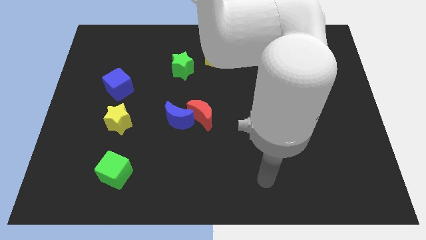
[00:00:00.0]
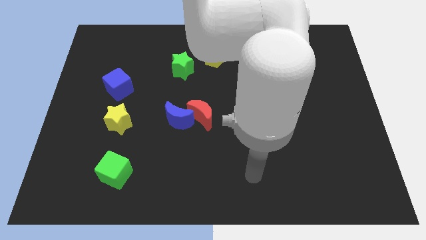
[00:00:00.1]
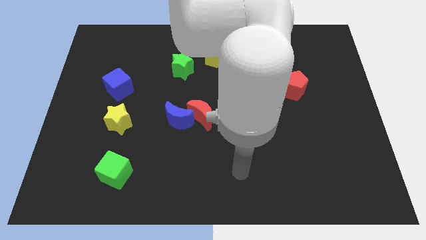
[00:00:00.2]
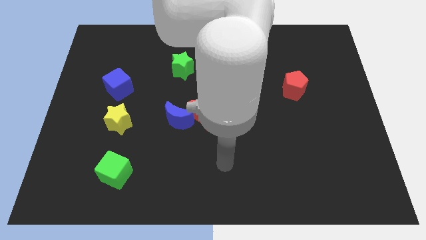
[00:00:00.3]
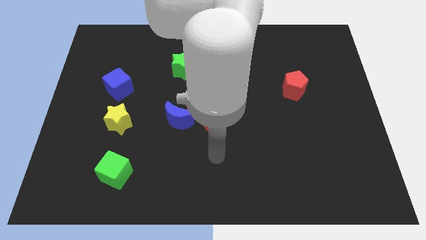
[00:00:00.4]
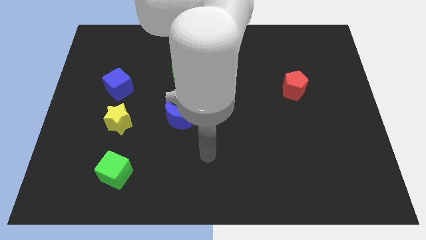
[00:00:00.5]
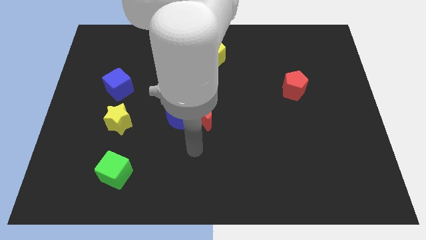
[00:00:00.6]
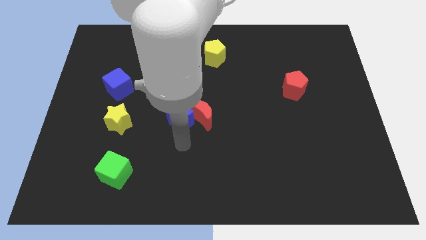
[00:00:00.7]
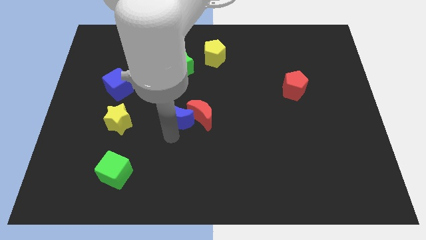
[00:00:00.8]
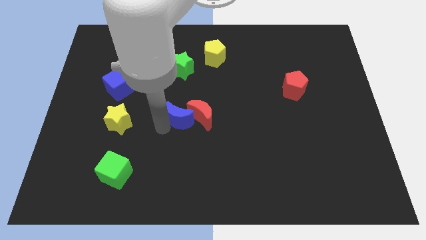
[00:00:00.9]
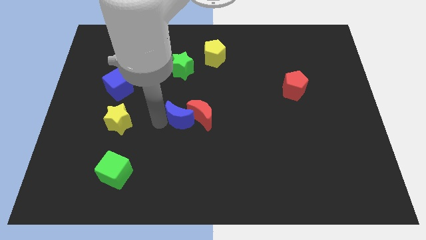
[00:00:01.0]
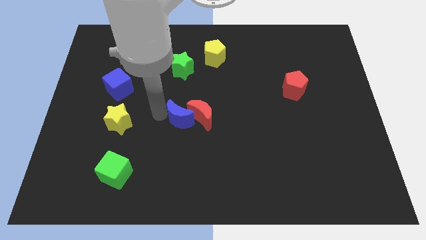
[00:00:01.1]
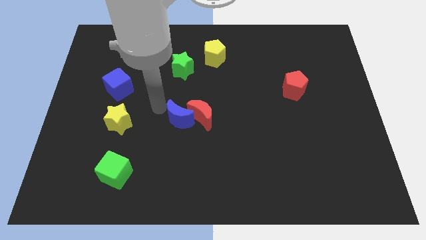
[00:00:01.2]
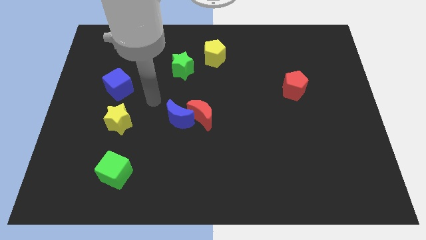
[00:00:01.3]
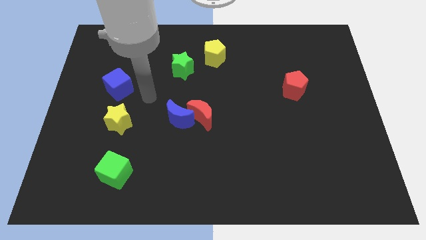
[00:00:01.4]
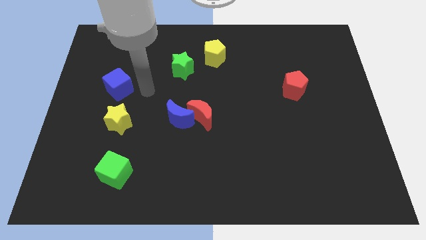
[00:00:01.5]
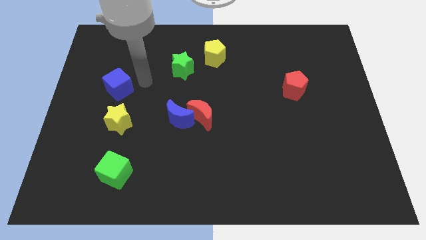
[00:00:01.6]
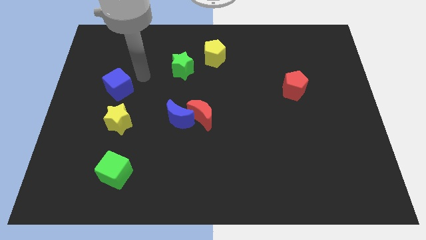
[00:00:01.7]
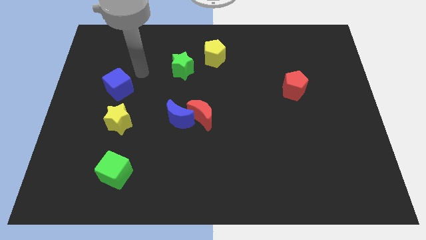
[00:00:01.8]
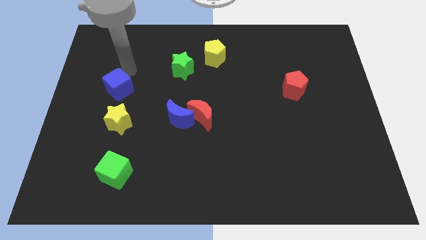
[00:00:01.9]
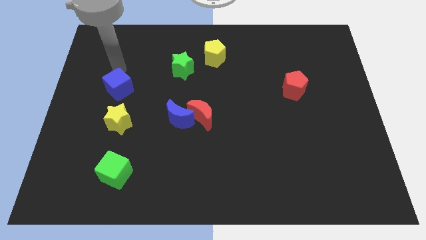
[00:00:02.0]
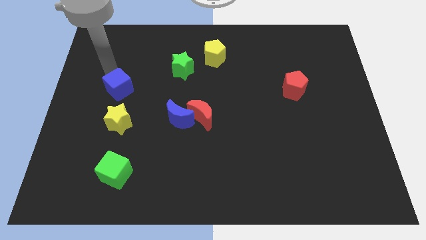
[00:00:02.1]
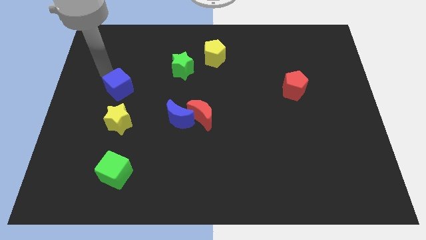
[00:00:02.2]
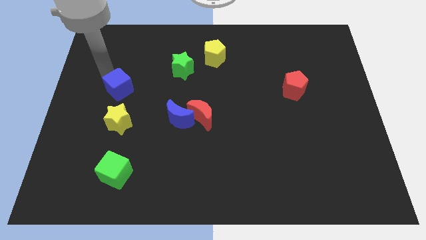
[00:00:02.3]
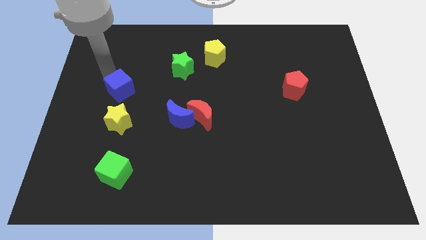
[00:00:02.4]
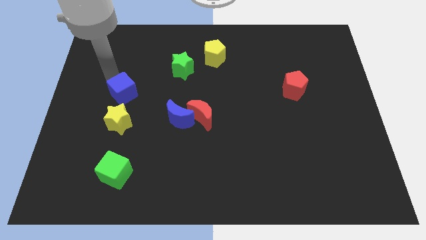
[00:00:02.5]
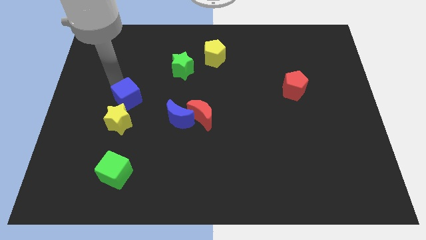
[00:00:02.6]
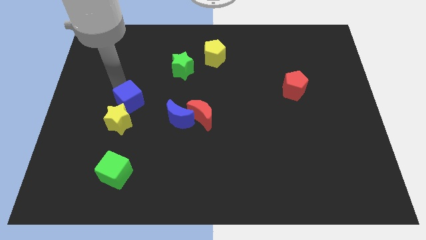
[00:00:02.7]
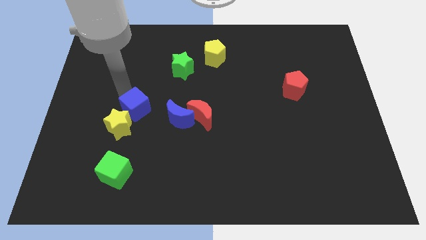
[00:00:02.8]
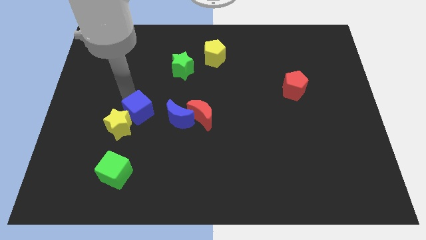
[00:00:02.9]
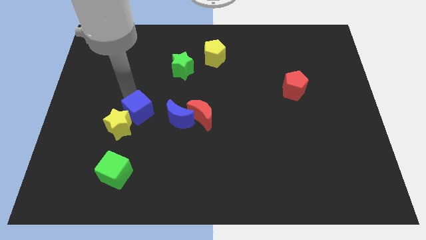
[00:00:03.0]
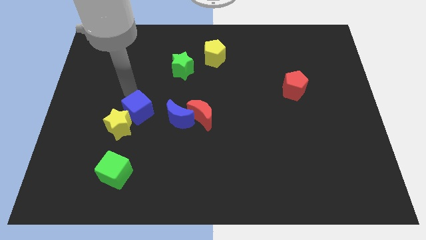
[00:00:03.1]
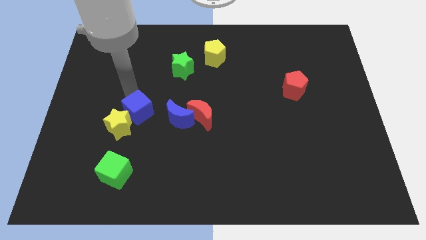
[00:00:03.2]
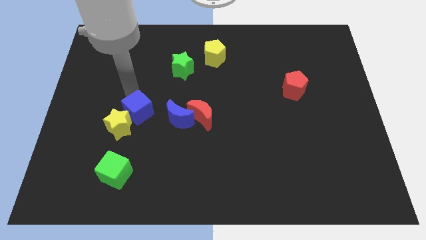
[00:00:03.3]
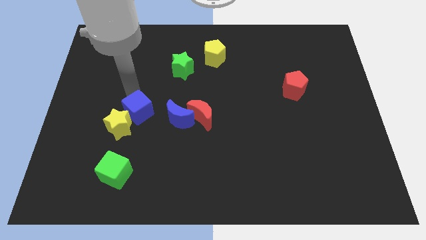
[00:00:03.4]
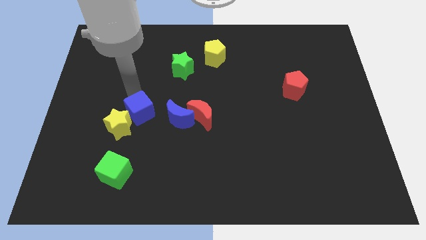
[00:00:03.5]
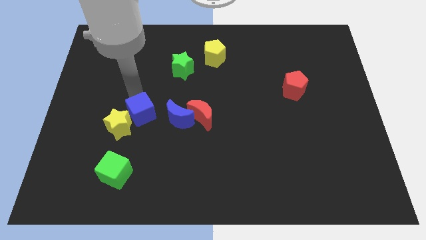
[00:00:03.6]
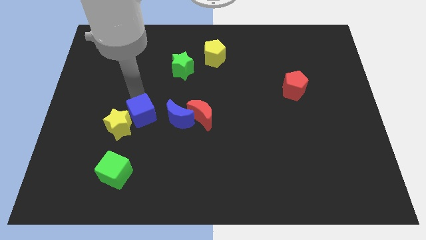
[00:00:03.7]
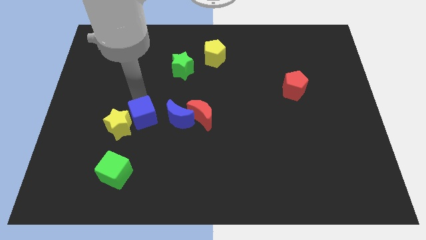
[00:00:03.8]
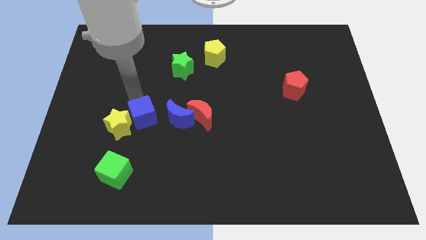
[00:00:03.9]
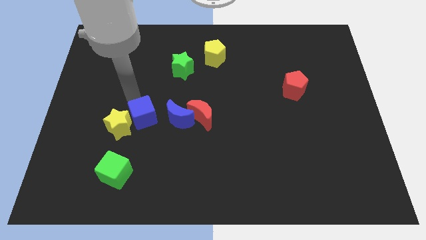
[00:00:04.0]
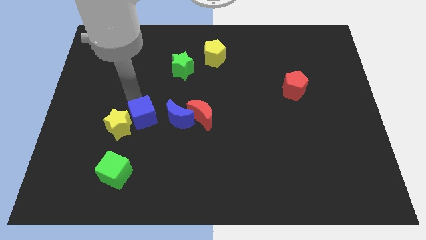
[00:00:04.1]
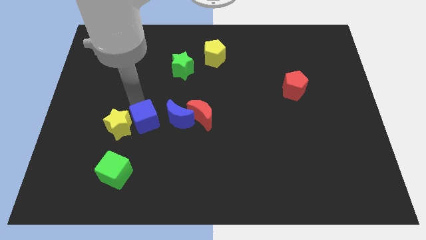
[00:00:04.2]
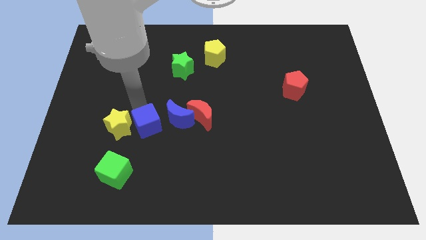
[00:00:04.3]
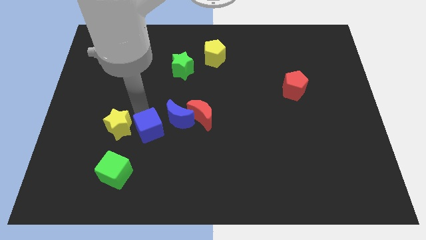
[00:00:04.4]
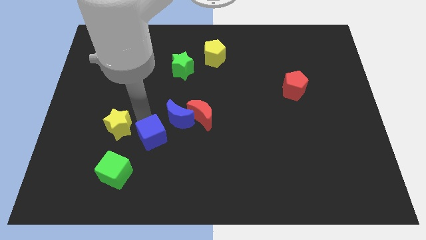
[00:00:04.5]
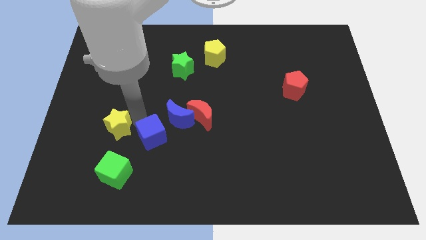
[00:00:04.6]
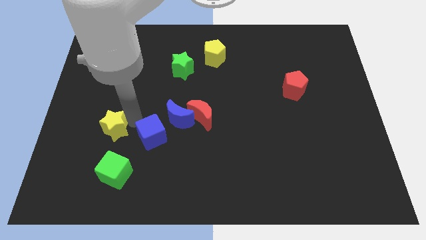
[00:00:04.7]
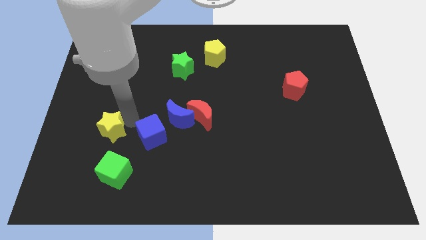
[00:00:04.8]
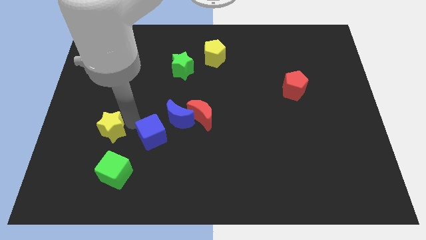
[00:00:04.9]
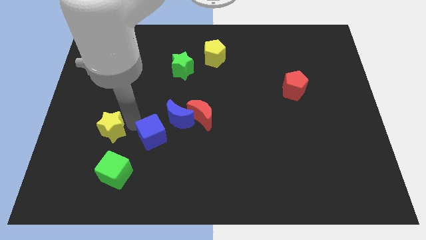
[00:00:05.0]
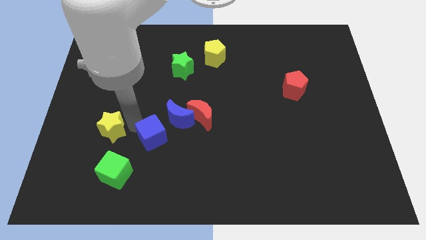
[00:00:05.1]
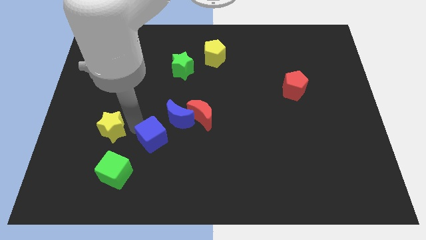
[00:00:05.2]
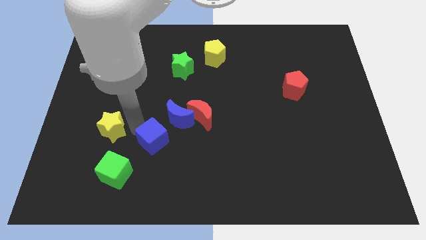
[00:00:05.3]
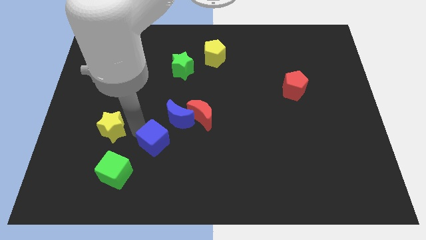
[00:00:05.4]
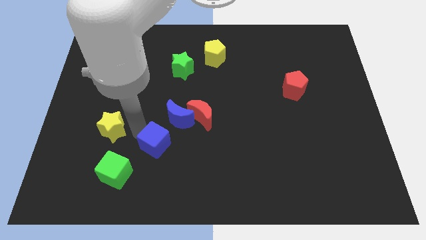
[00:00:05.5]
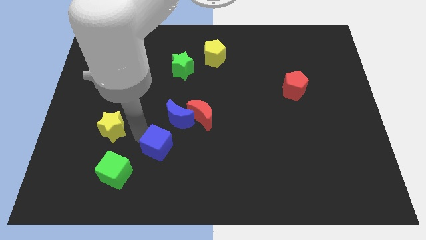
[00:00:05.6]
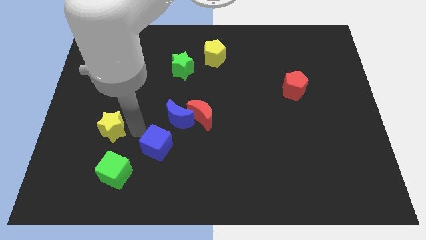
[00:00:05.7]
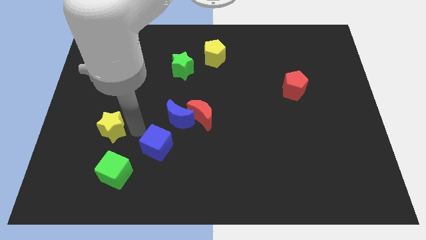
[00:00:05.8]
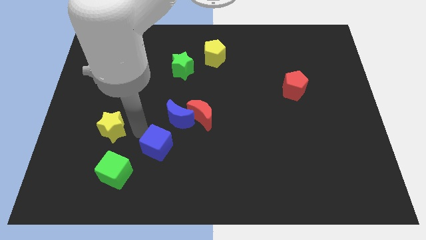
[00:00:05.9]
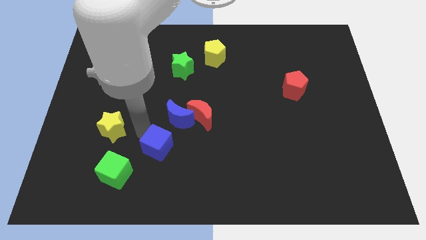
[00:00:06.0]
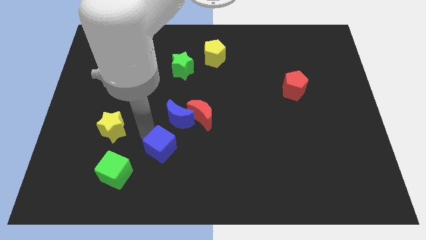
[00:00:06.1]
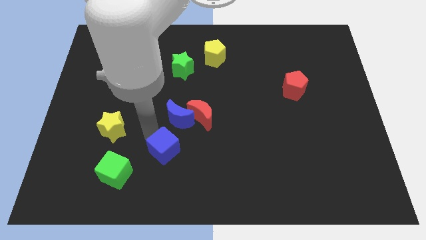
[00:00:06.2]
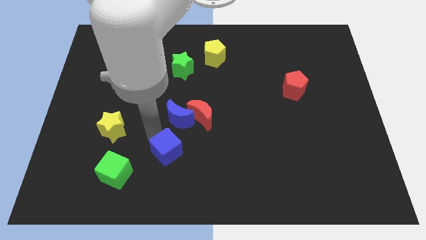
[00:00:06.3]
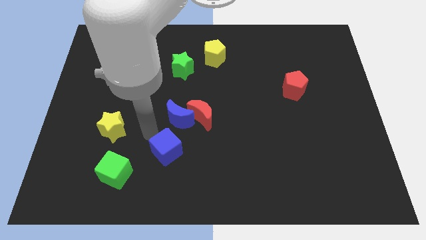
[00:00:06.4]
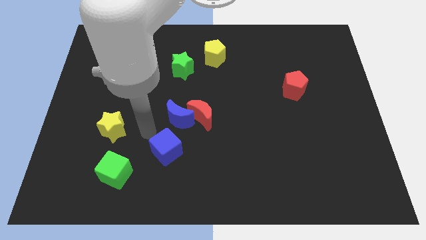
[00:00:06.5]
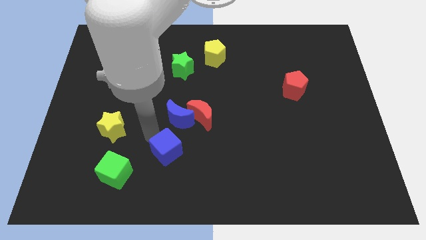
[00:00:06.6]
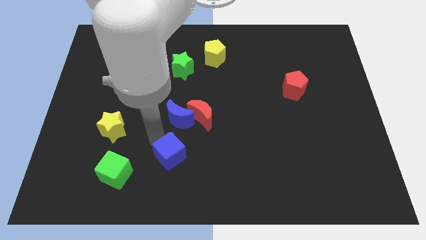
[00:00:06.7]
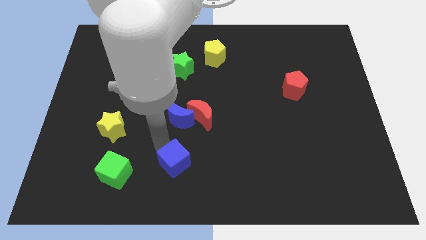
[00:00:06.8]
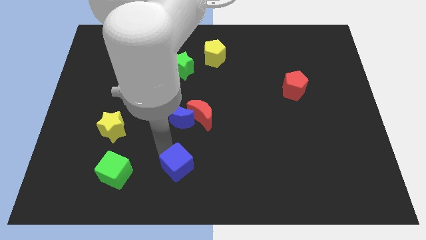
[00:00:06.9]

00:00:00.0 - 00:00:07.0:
move the blue cube to the bottom side
